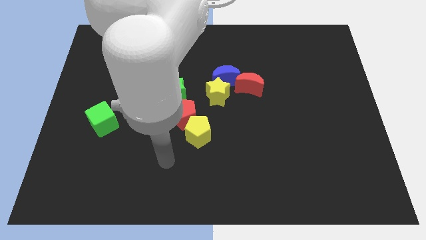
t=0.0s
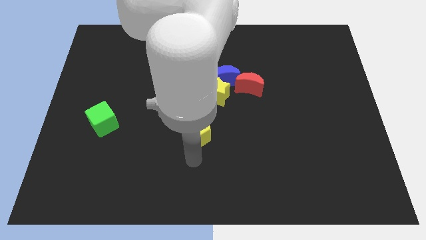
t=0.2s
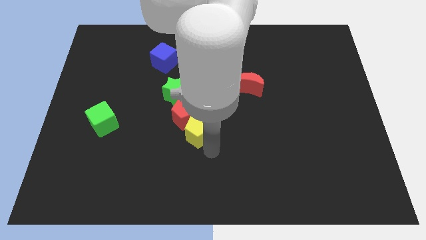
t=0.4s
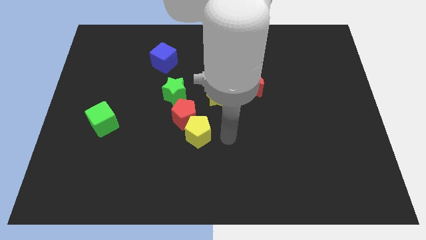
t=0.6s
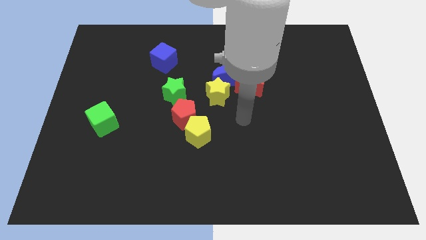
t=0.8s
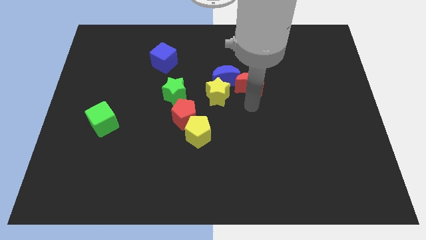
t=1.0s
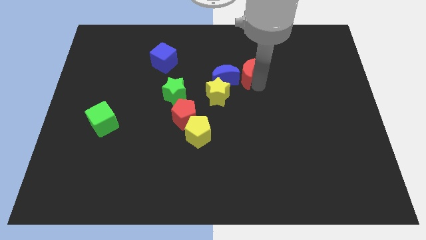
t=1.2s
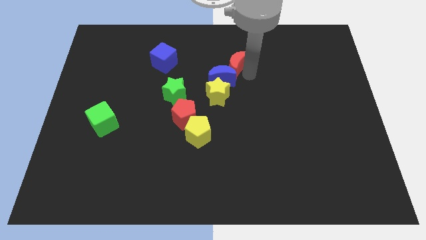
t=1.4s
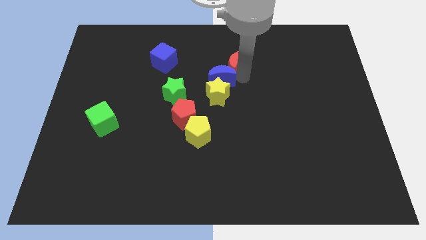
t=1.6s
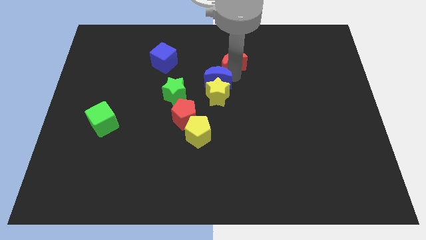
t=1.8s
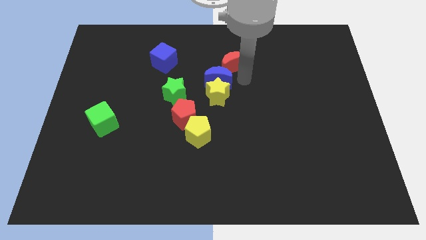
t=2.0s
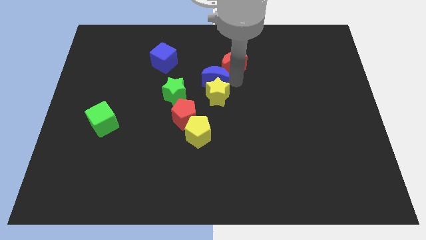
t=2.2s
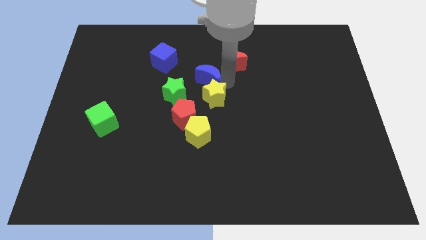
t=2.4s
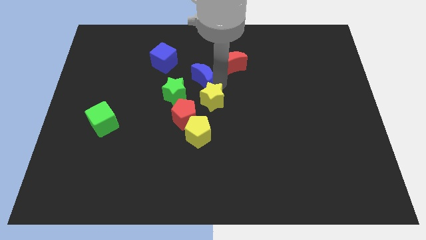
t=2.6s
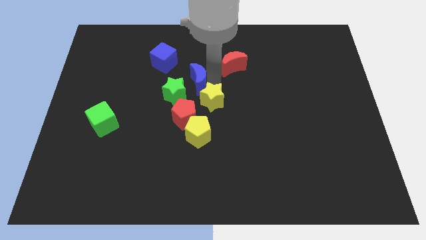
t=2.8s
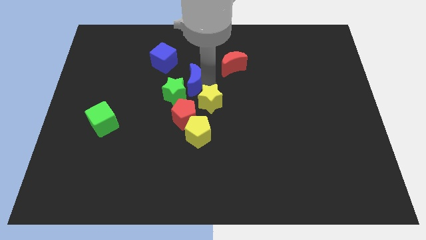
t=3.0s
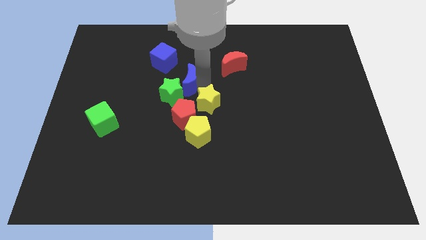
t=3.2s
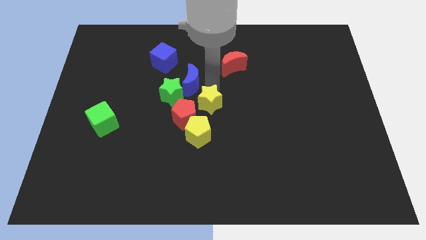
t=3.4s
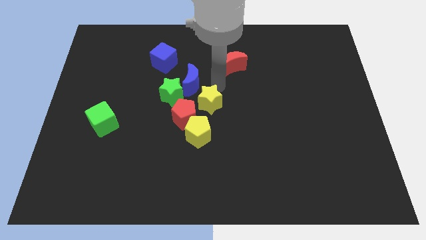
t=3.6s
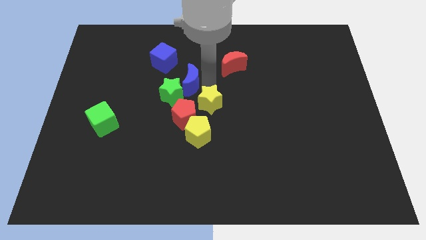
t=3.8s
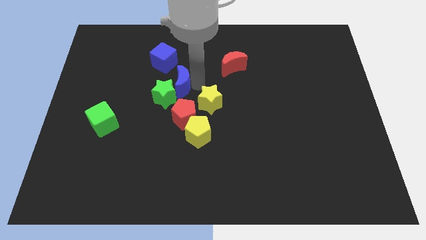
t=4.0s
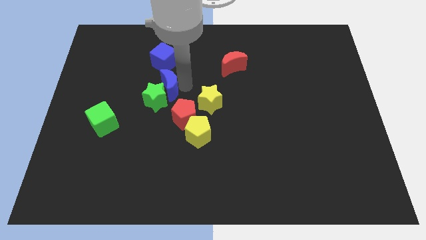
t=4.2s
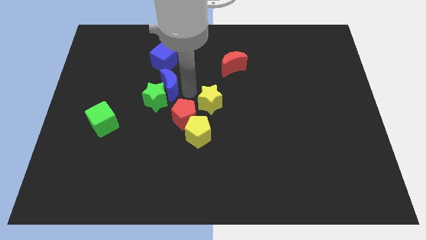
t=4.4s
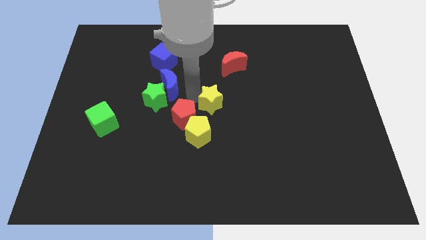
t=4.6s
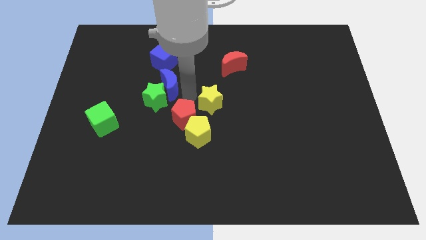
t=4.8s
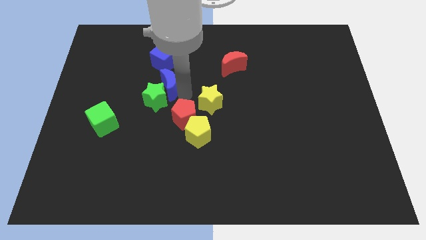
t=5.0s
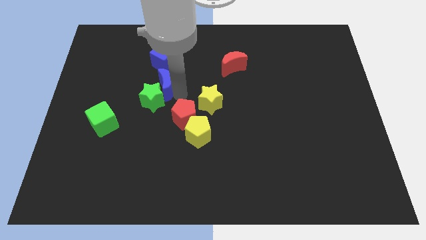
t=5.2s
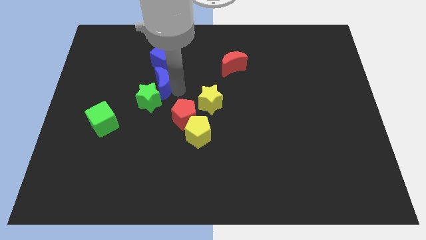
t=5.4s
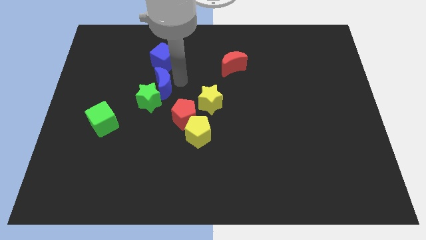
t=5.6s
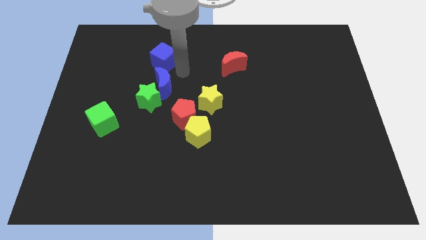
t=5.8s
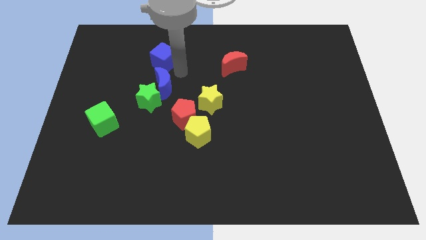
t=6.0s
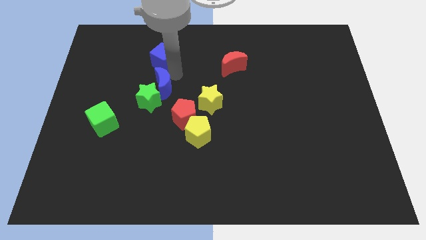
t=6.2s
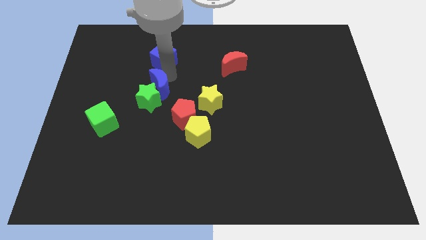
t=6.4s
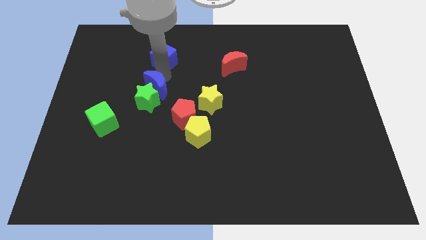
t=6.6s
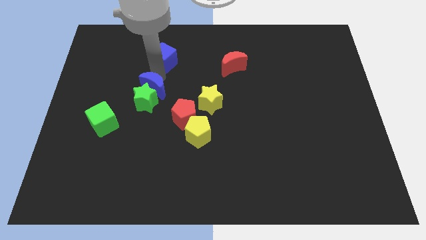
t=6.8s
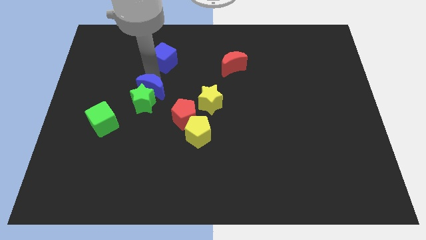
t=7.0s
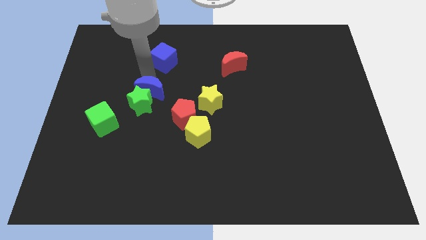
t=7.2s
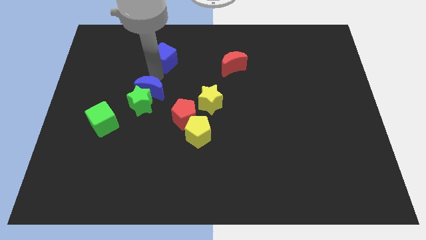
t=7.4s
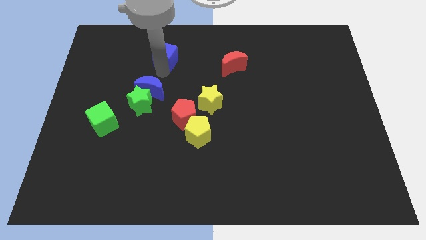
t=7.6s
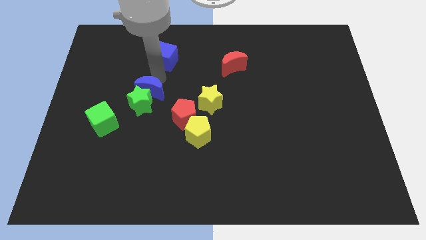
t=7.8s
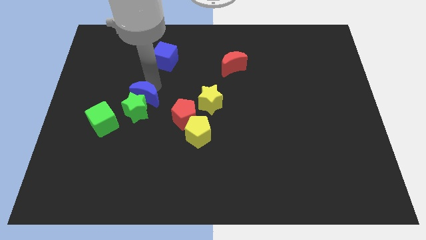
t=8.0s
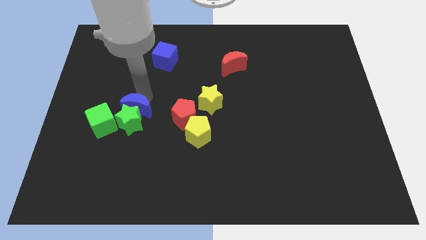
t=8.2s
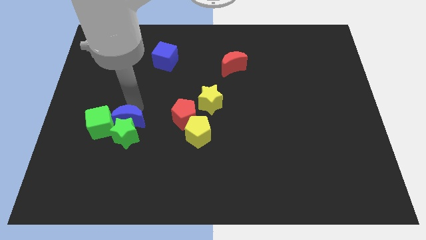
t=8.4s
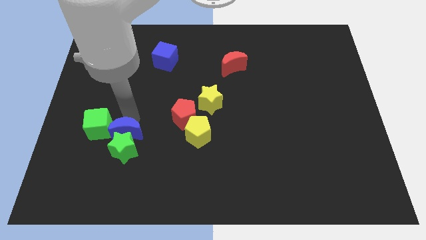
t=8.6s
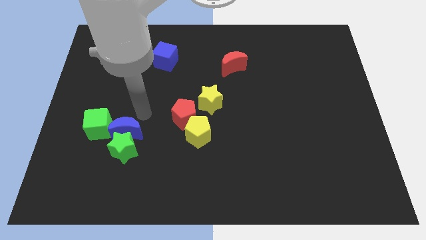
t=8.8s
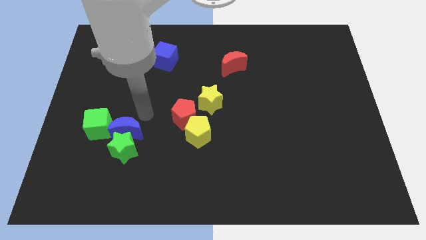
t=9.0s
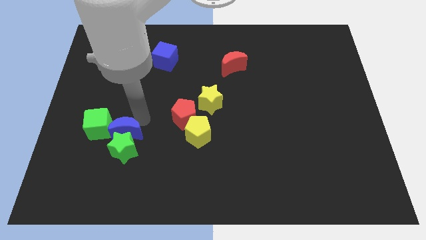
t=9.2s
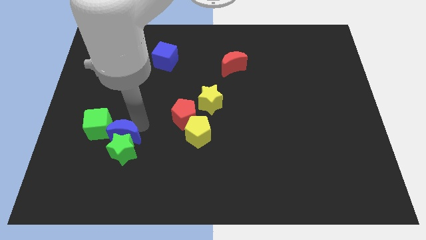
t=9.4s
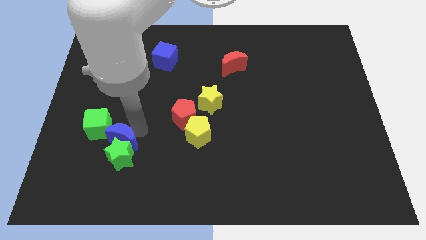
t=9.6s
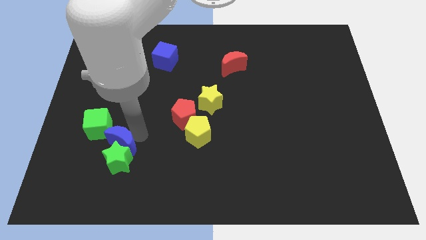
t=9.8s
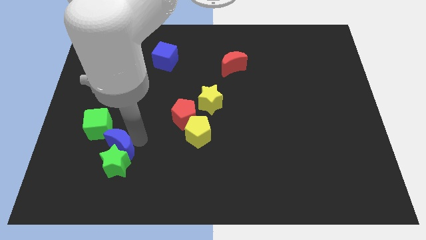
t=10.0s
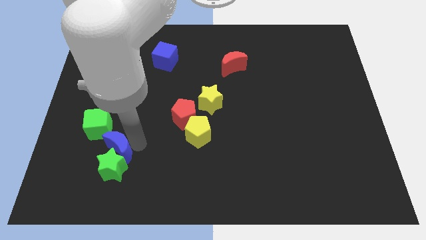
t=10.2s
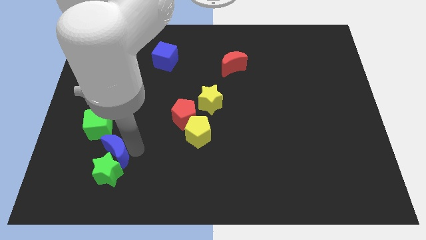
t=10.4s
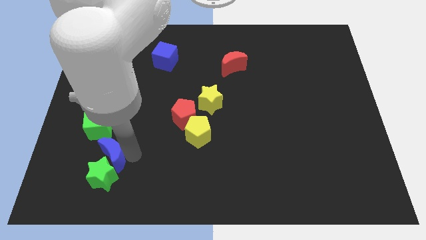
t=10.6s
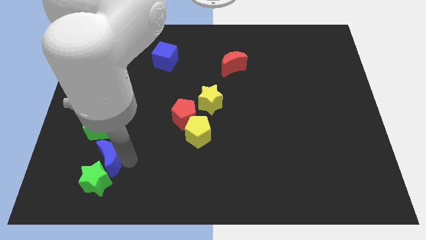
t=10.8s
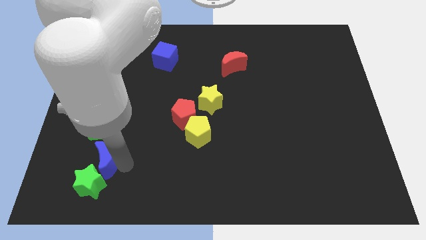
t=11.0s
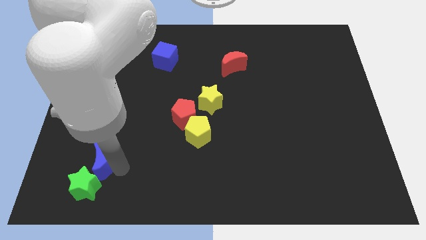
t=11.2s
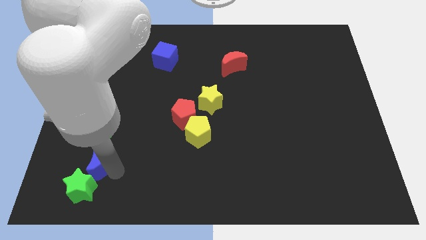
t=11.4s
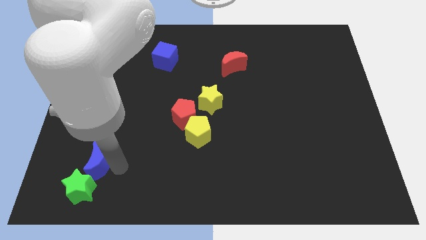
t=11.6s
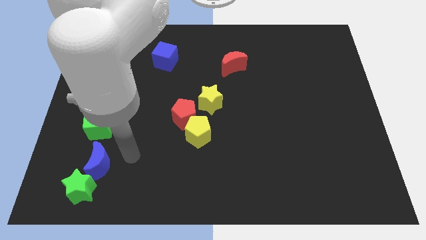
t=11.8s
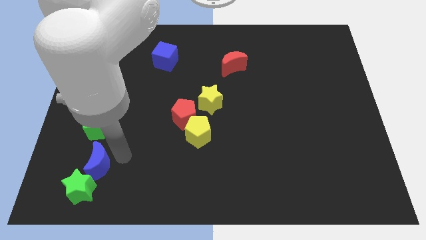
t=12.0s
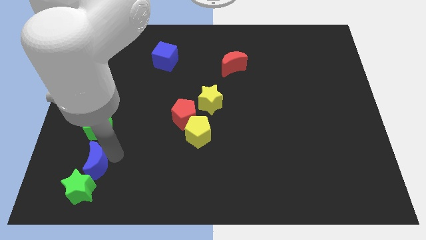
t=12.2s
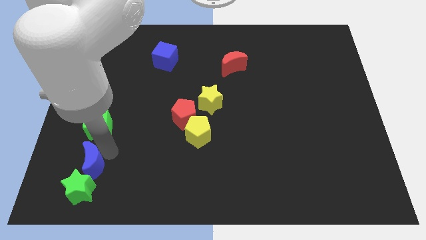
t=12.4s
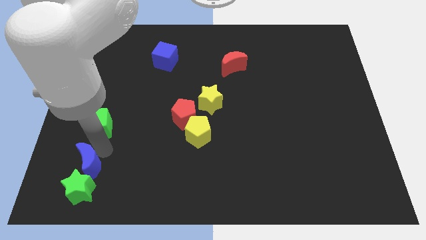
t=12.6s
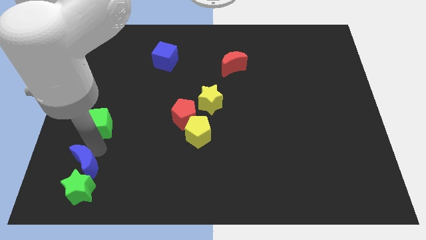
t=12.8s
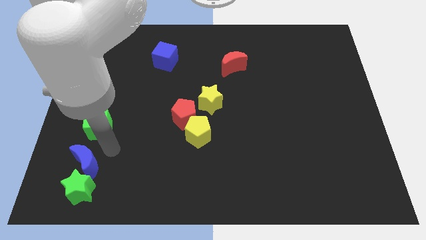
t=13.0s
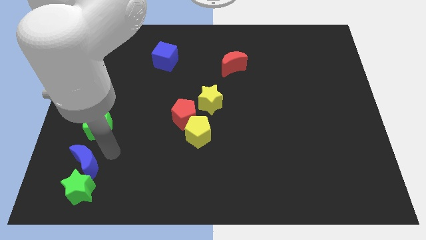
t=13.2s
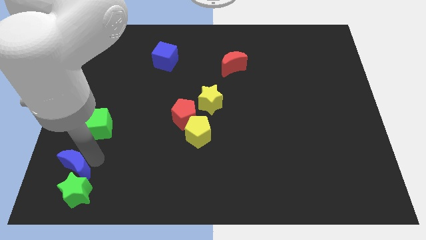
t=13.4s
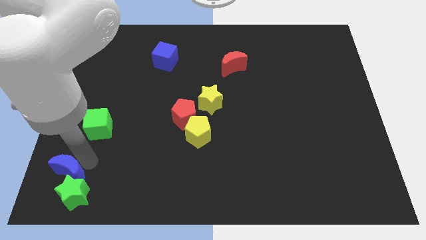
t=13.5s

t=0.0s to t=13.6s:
move the blue moon to the lower left corner
